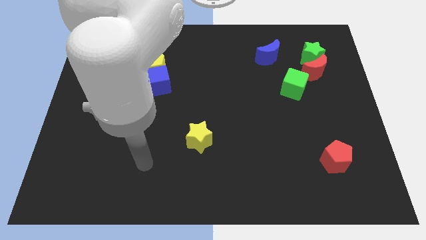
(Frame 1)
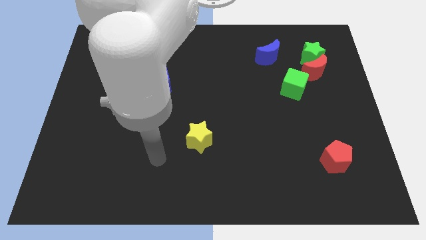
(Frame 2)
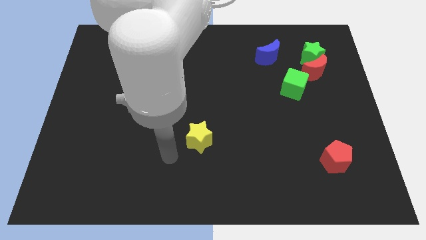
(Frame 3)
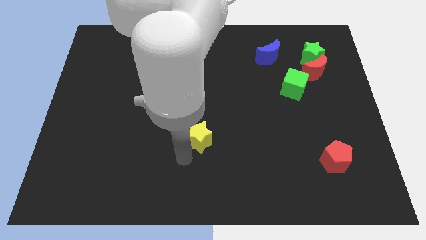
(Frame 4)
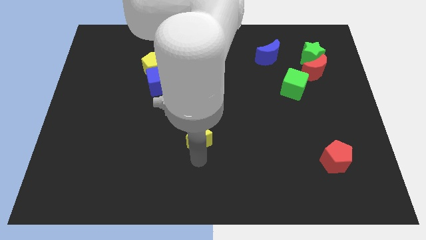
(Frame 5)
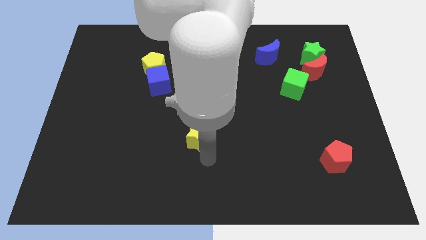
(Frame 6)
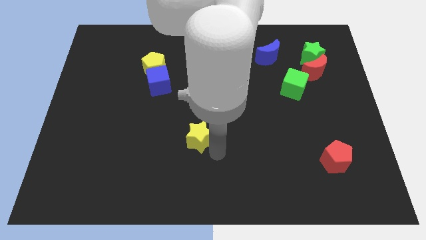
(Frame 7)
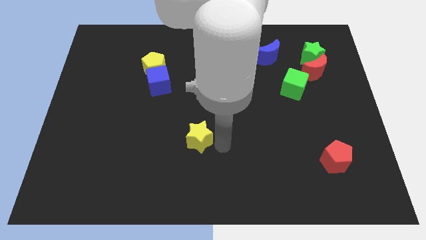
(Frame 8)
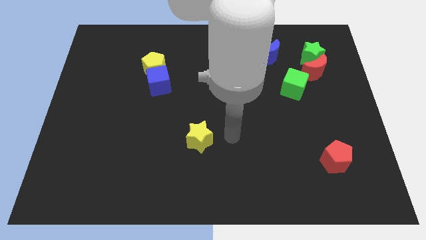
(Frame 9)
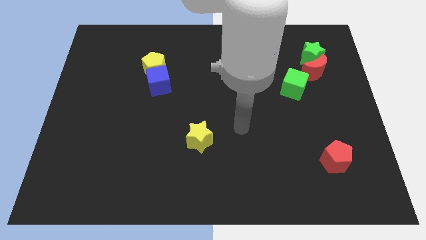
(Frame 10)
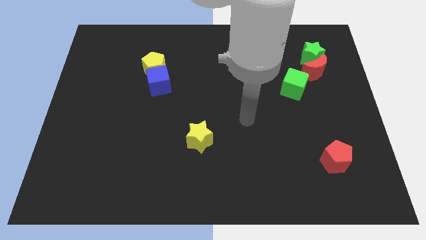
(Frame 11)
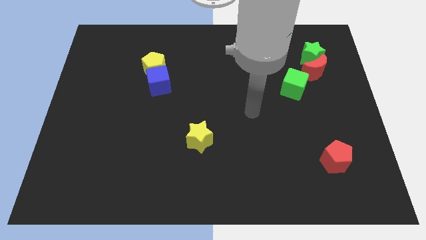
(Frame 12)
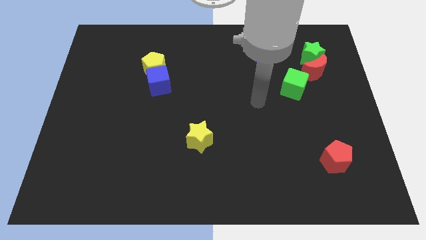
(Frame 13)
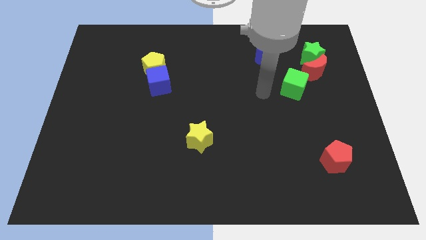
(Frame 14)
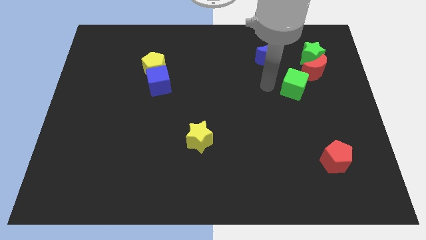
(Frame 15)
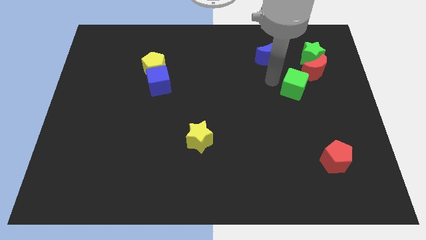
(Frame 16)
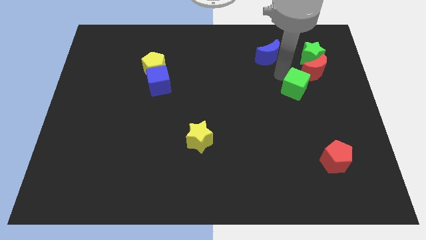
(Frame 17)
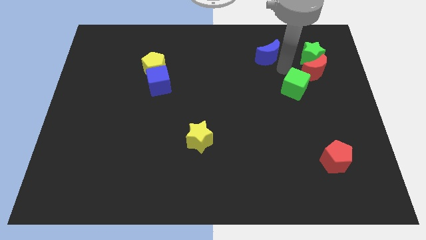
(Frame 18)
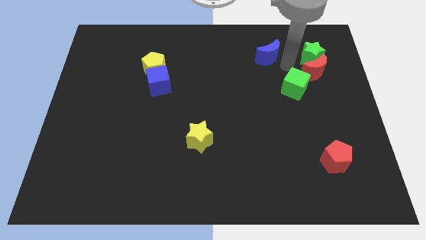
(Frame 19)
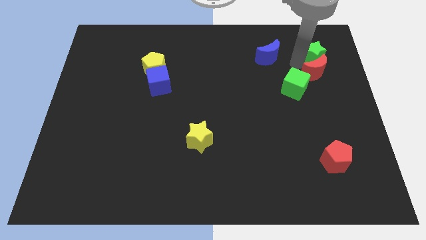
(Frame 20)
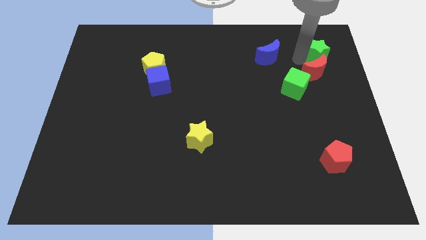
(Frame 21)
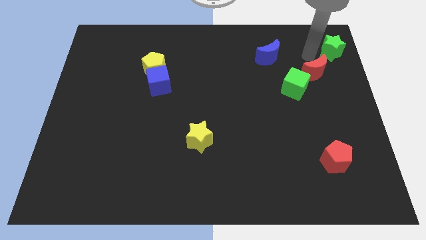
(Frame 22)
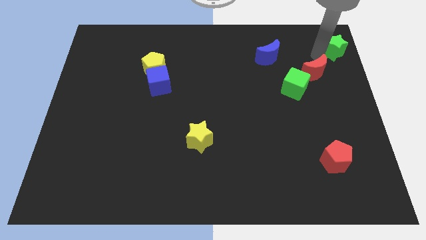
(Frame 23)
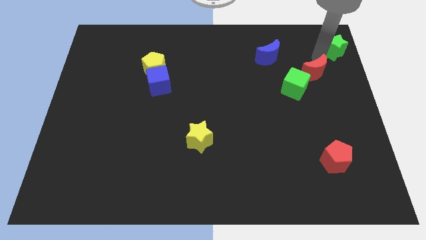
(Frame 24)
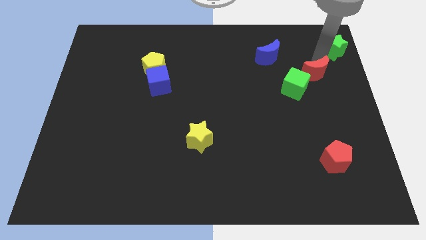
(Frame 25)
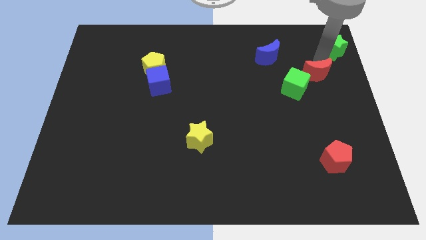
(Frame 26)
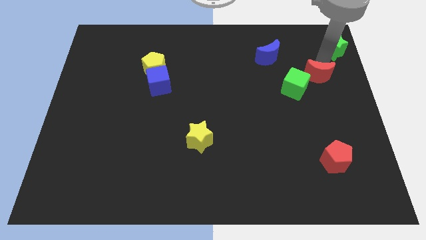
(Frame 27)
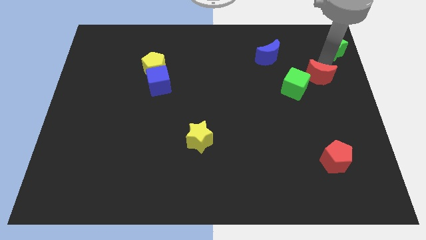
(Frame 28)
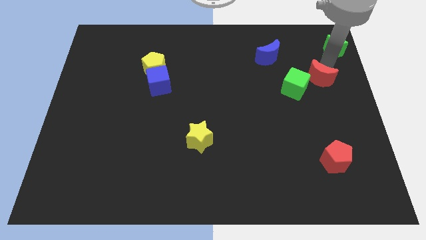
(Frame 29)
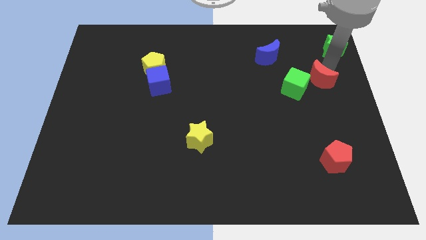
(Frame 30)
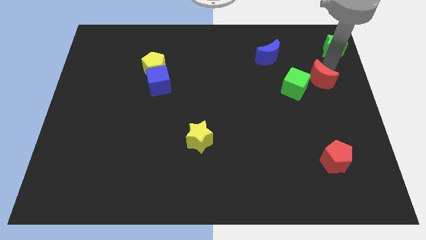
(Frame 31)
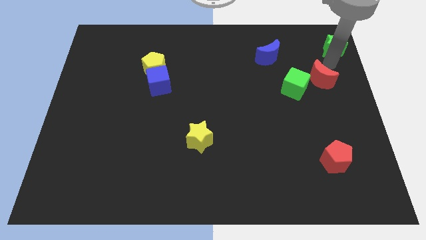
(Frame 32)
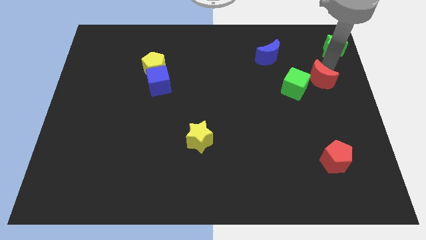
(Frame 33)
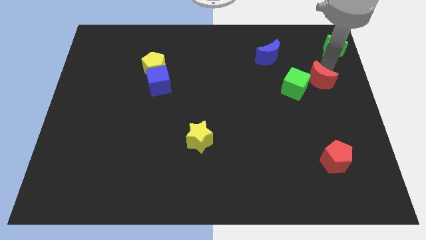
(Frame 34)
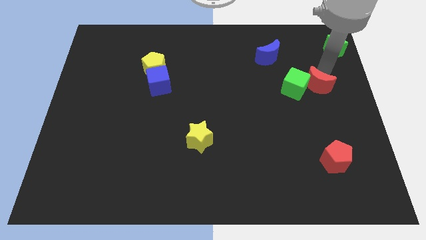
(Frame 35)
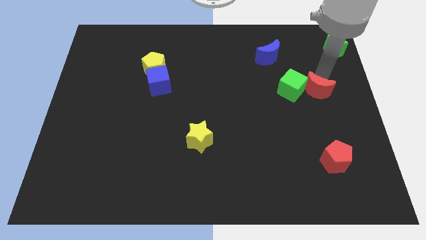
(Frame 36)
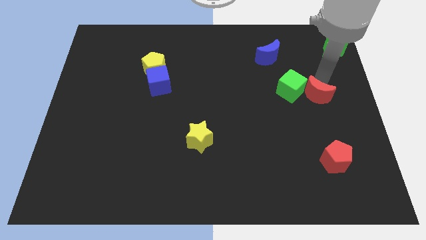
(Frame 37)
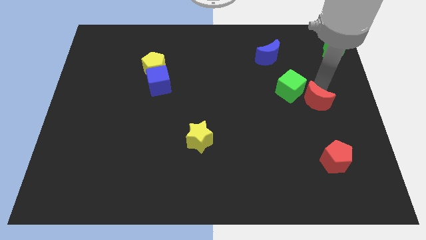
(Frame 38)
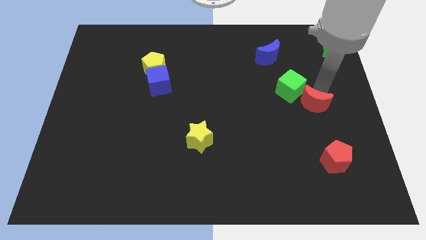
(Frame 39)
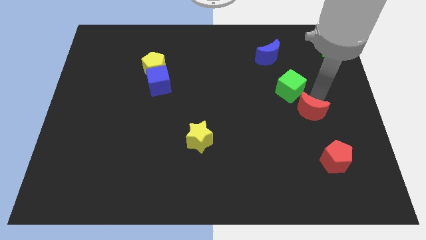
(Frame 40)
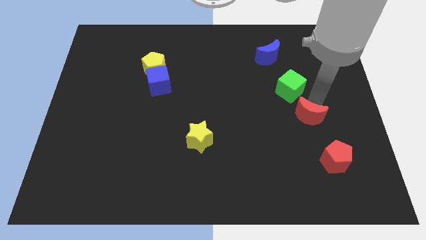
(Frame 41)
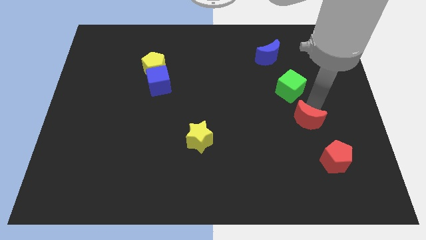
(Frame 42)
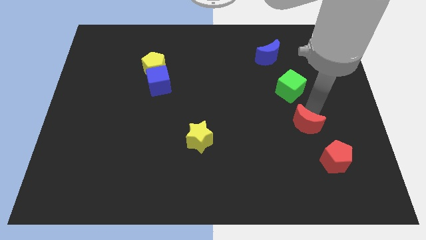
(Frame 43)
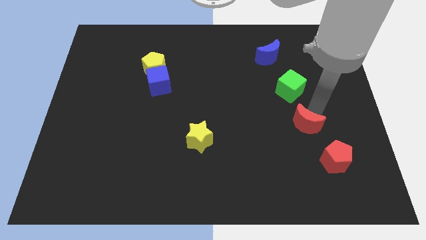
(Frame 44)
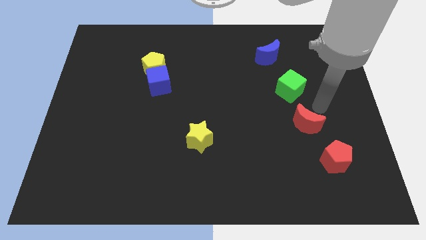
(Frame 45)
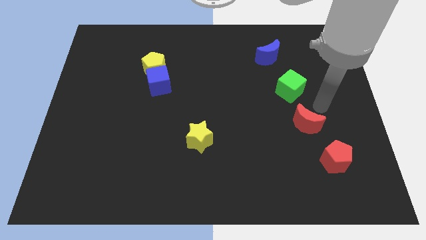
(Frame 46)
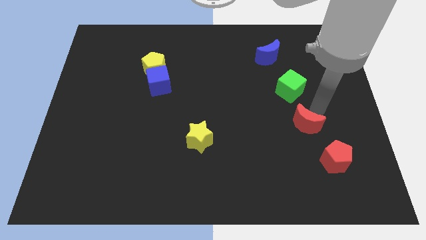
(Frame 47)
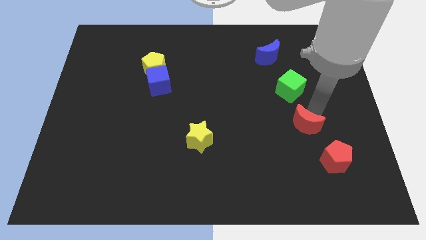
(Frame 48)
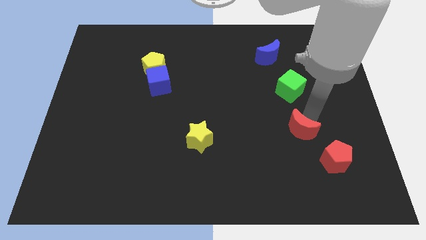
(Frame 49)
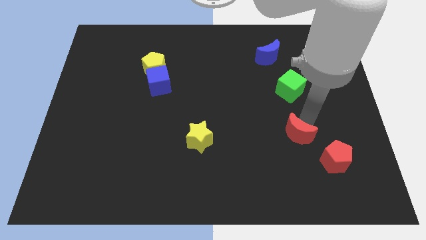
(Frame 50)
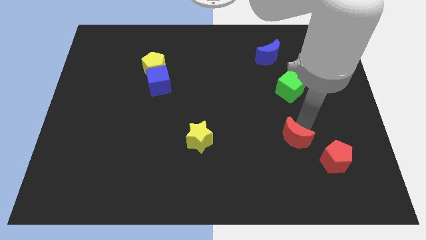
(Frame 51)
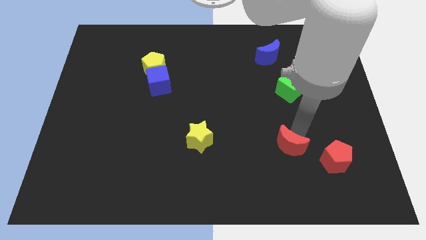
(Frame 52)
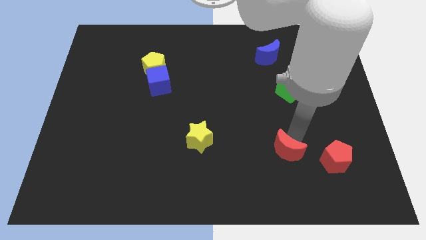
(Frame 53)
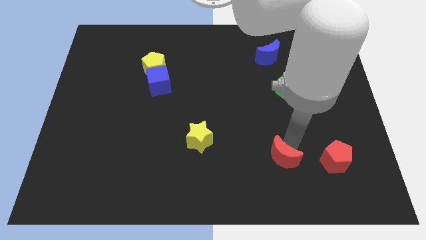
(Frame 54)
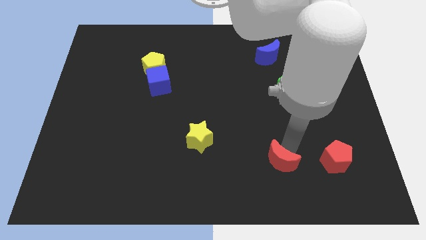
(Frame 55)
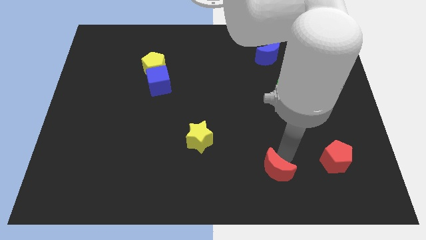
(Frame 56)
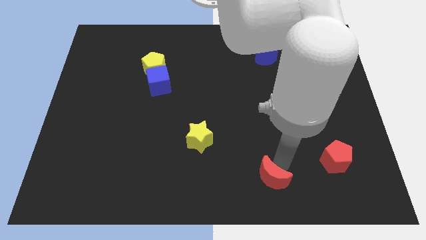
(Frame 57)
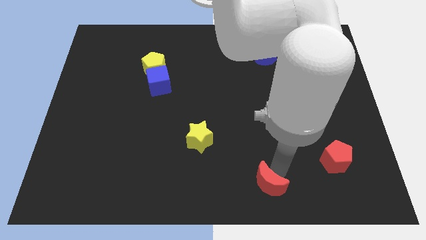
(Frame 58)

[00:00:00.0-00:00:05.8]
push the red moon to the bottom

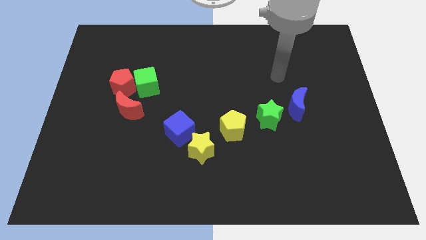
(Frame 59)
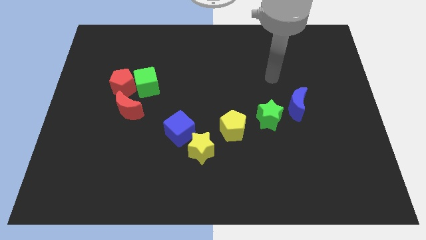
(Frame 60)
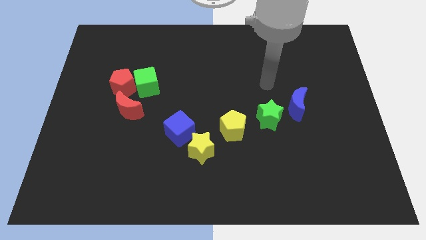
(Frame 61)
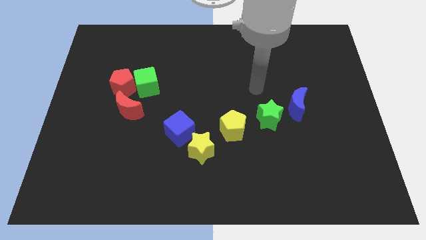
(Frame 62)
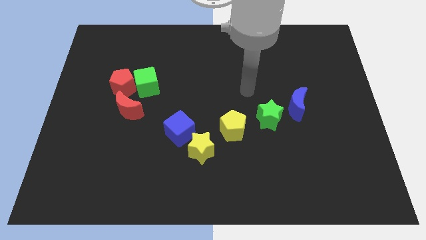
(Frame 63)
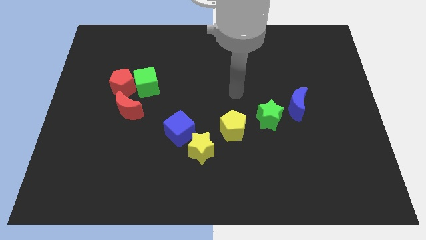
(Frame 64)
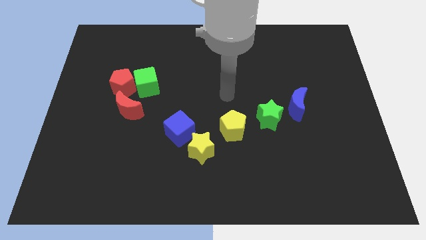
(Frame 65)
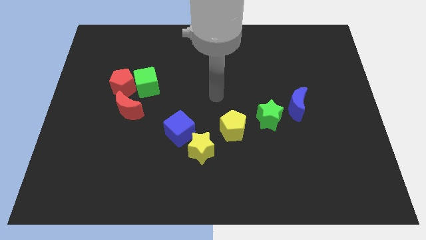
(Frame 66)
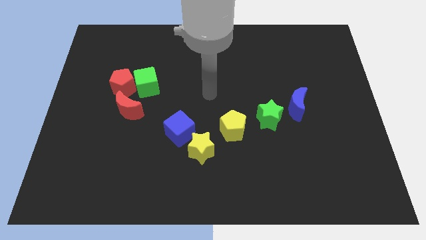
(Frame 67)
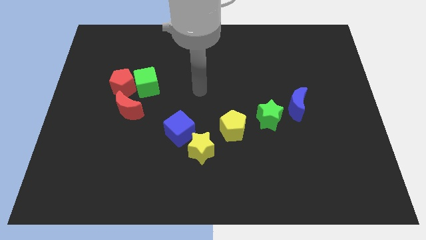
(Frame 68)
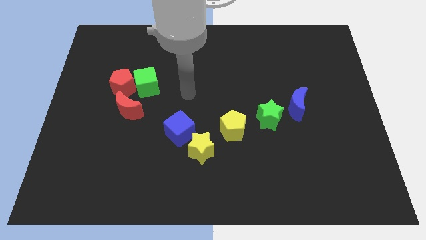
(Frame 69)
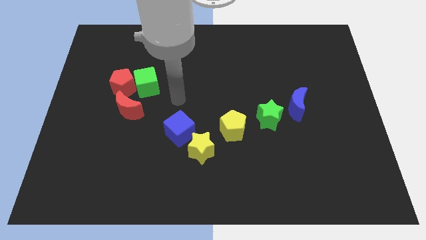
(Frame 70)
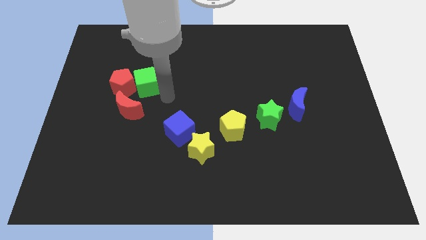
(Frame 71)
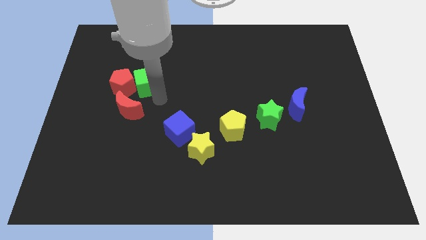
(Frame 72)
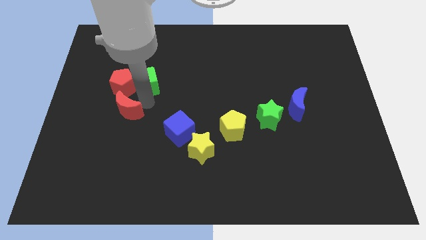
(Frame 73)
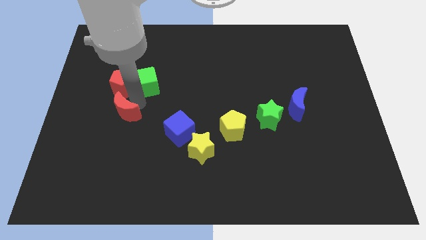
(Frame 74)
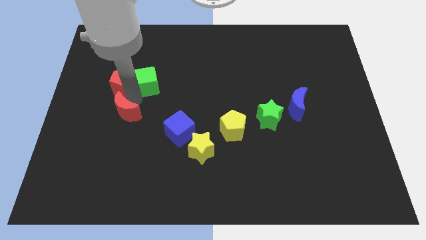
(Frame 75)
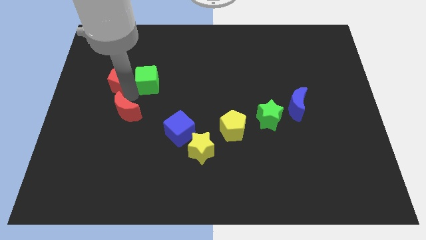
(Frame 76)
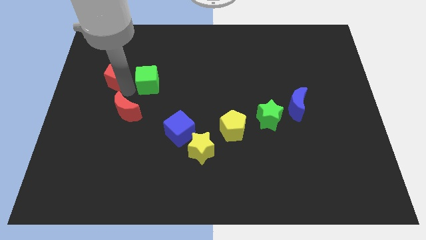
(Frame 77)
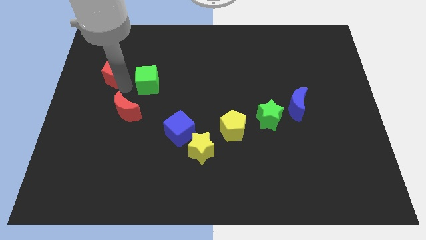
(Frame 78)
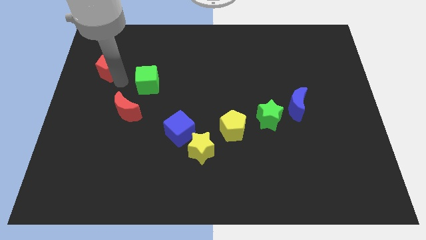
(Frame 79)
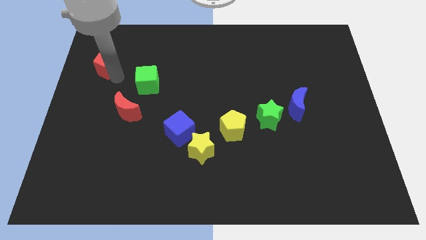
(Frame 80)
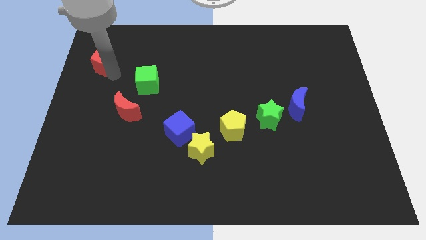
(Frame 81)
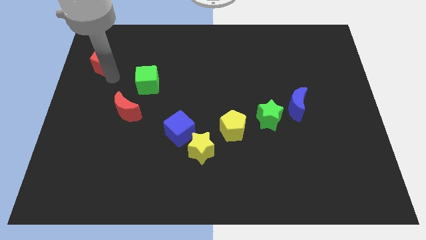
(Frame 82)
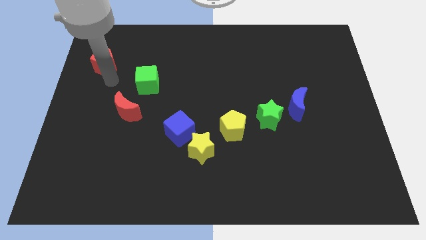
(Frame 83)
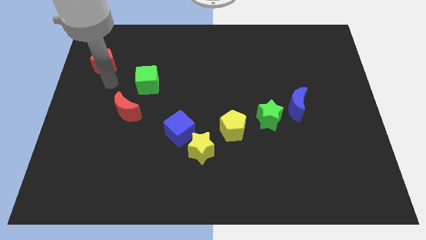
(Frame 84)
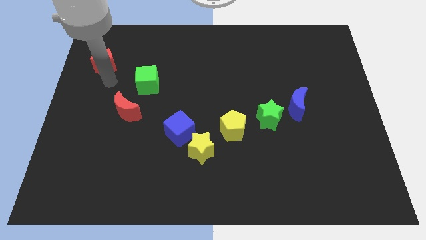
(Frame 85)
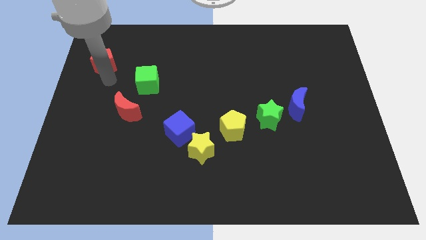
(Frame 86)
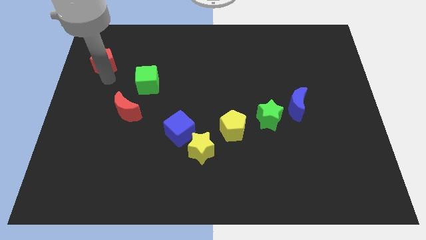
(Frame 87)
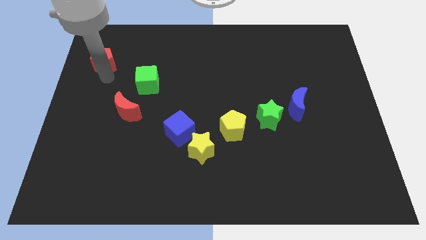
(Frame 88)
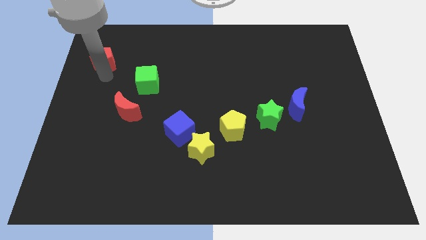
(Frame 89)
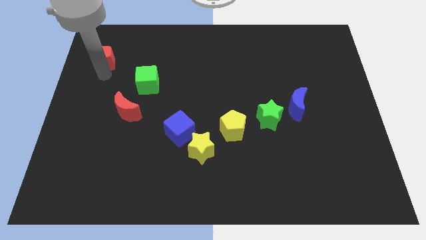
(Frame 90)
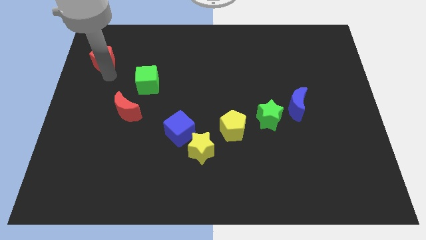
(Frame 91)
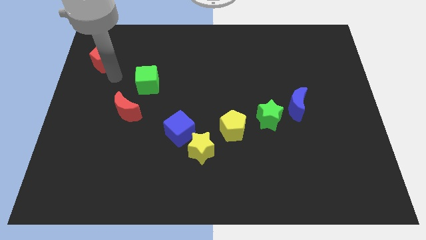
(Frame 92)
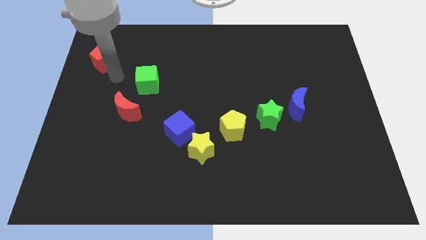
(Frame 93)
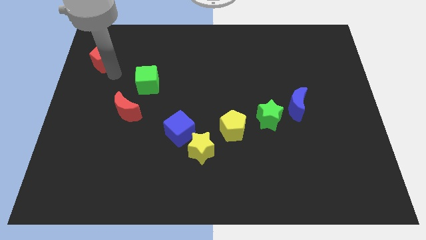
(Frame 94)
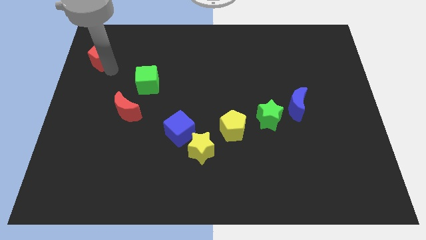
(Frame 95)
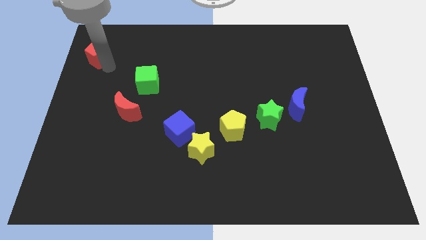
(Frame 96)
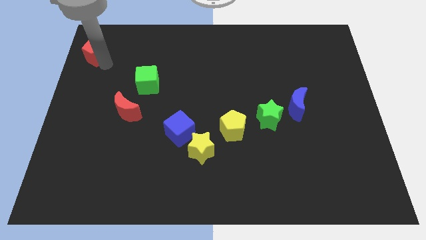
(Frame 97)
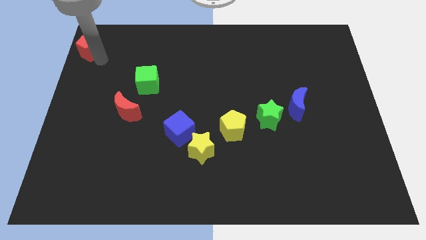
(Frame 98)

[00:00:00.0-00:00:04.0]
move the red pentagon to the top left of the board
